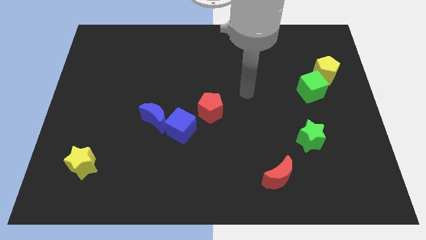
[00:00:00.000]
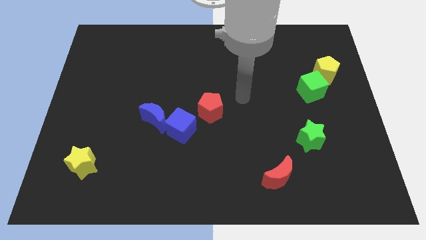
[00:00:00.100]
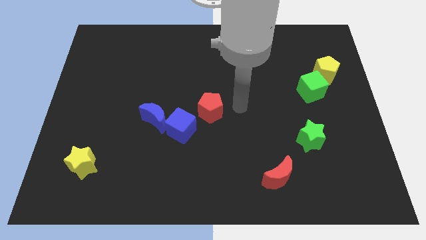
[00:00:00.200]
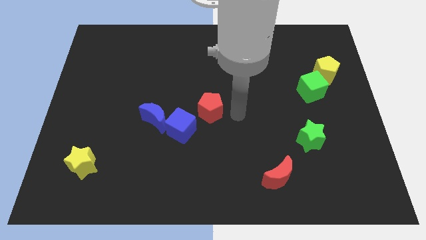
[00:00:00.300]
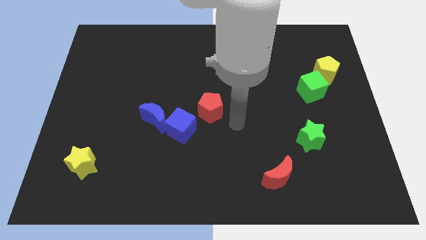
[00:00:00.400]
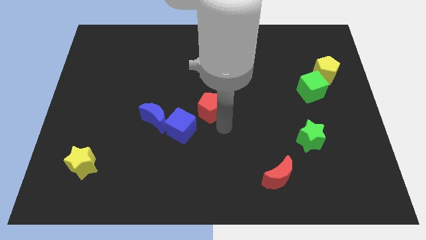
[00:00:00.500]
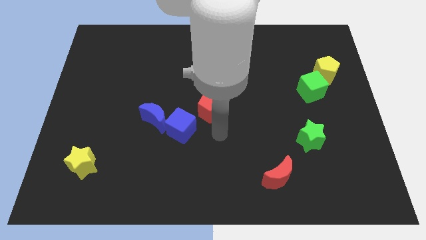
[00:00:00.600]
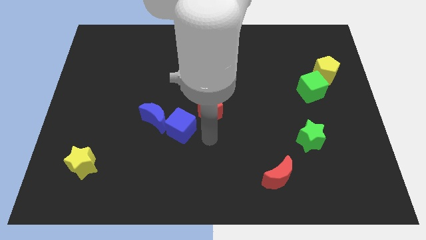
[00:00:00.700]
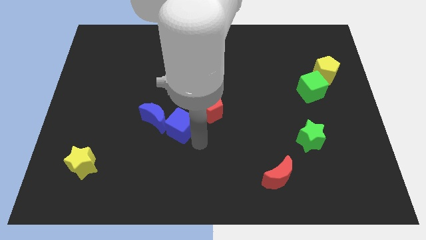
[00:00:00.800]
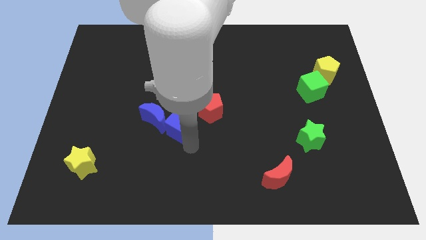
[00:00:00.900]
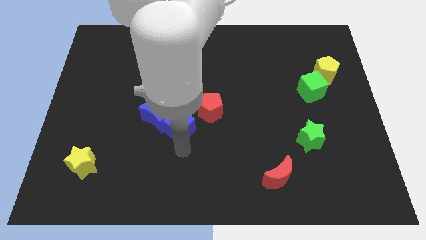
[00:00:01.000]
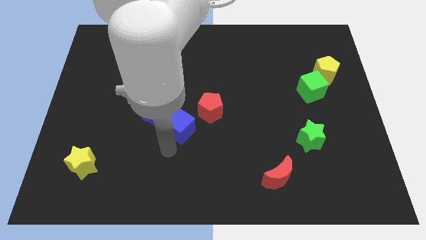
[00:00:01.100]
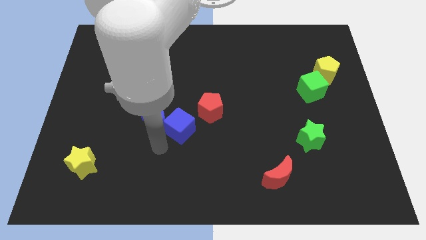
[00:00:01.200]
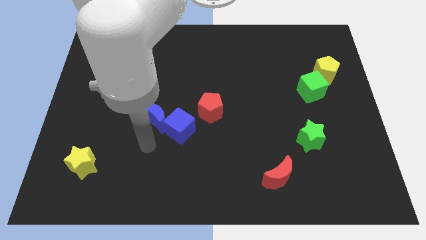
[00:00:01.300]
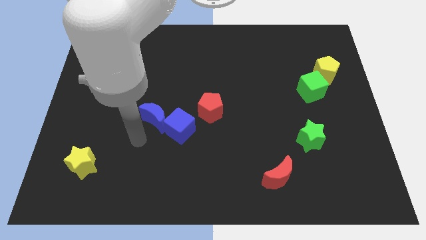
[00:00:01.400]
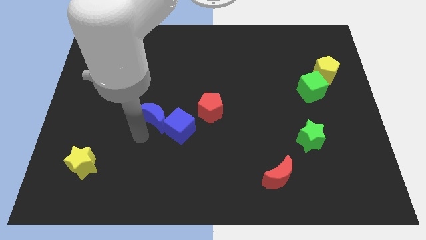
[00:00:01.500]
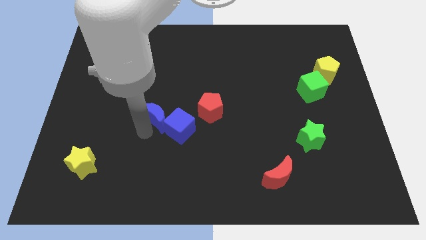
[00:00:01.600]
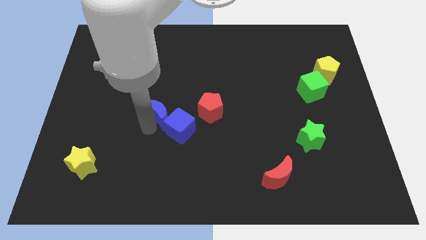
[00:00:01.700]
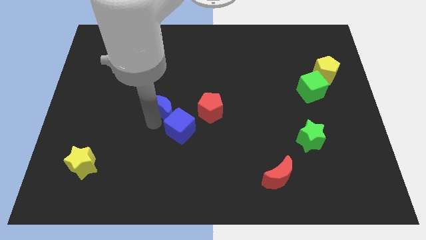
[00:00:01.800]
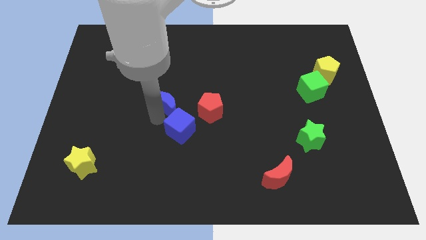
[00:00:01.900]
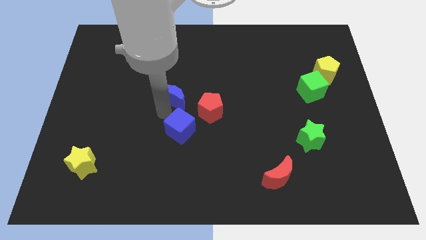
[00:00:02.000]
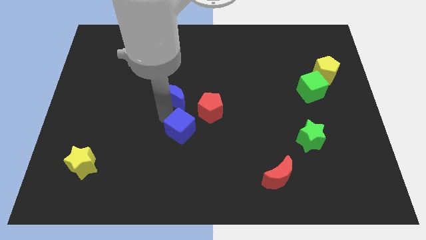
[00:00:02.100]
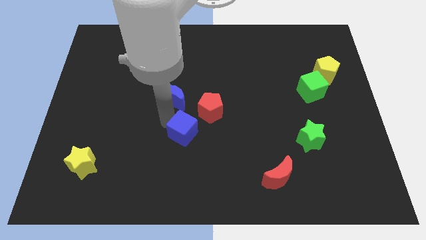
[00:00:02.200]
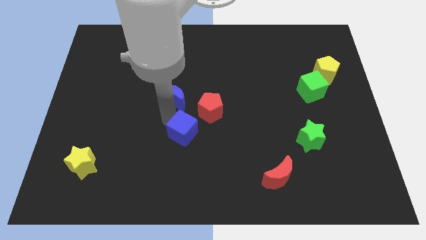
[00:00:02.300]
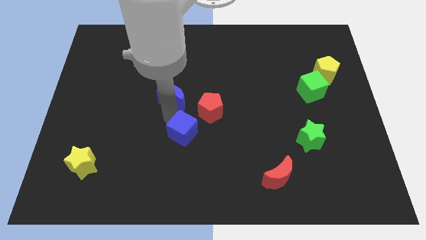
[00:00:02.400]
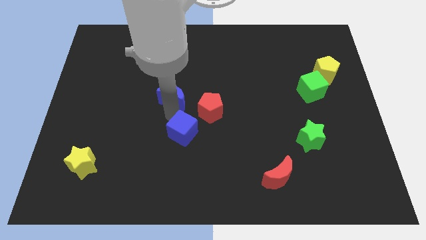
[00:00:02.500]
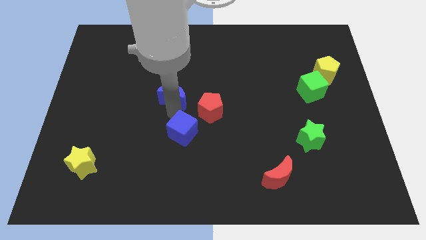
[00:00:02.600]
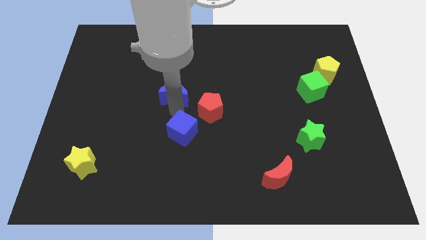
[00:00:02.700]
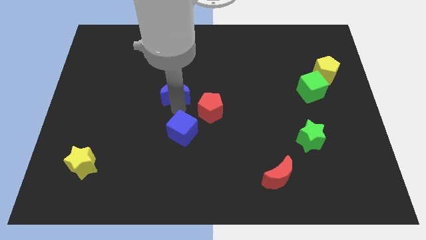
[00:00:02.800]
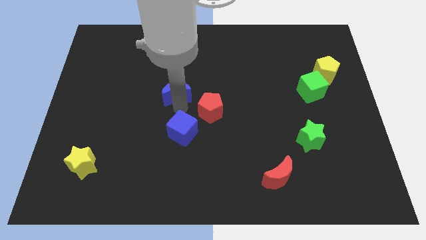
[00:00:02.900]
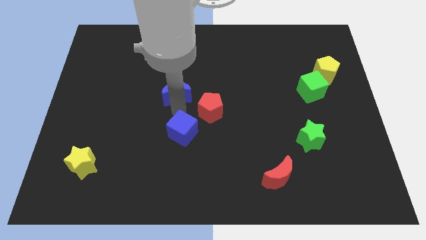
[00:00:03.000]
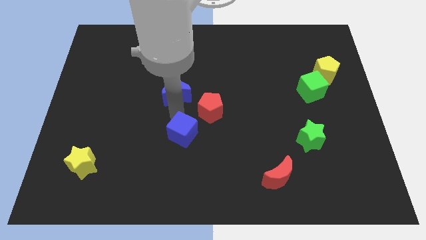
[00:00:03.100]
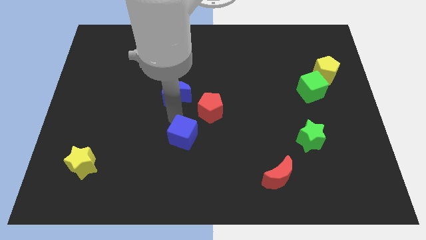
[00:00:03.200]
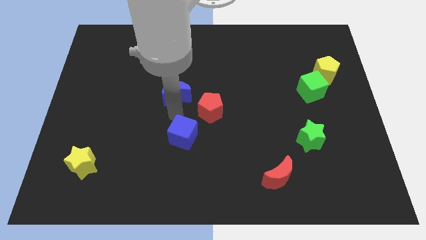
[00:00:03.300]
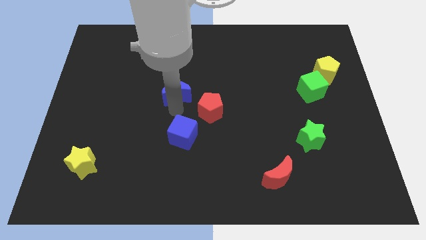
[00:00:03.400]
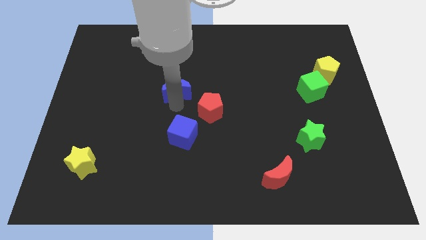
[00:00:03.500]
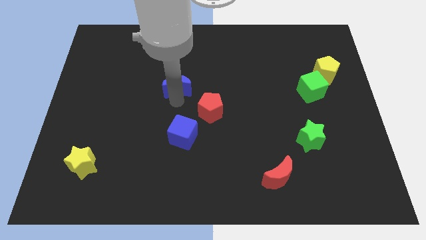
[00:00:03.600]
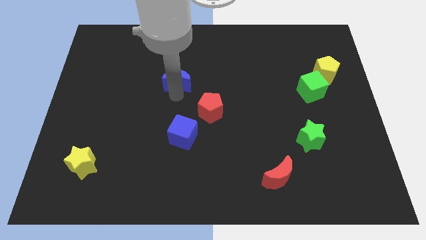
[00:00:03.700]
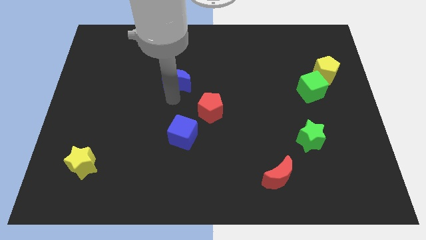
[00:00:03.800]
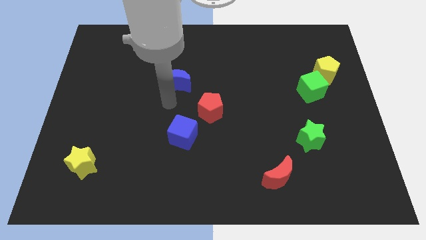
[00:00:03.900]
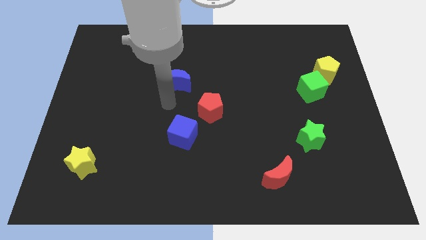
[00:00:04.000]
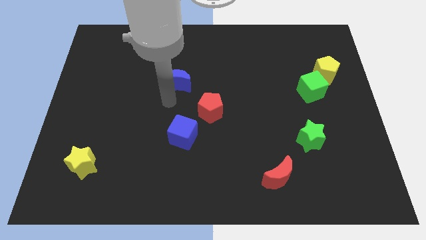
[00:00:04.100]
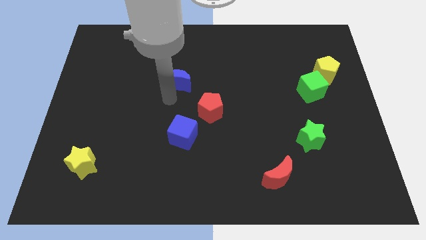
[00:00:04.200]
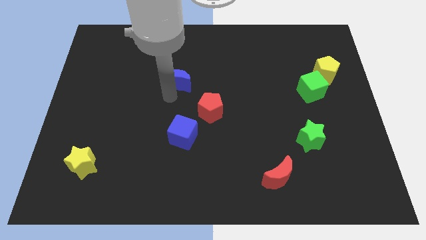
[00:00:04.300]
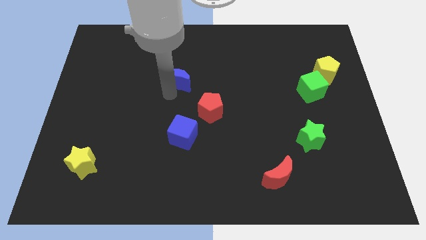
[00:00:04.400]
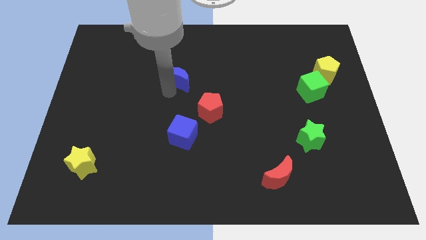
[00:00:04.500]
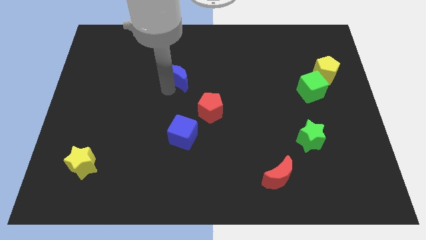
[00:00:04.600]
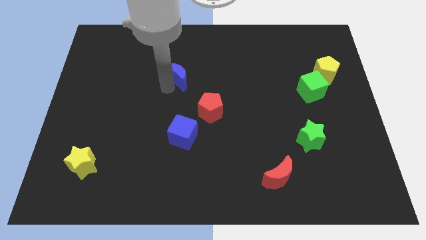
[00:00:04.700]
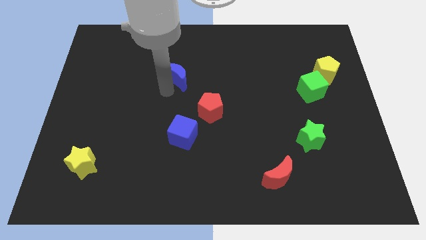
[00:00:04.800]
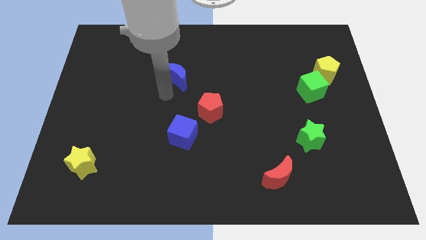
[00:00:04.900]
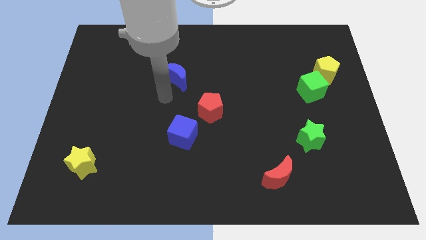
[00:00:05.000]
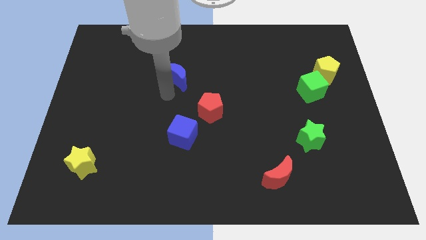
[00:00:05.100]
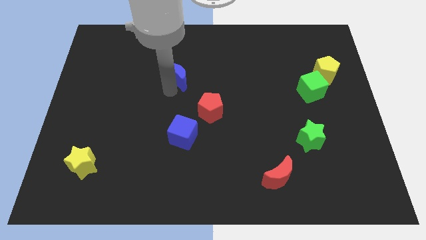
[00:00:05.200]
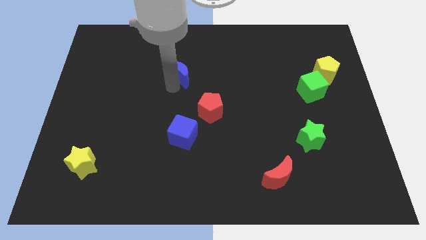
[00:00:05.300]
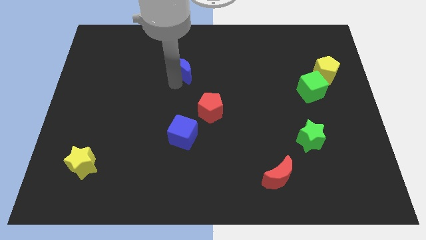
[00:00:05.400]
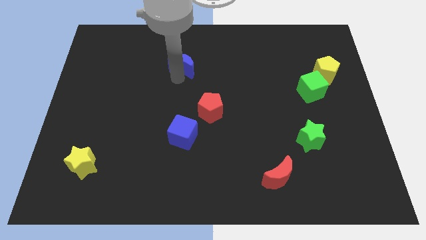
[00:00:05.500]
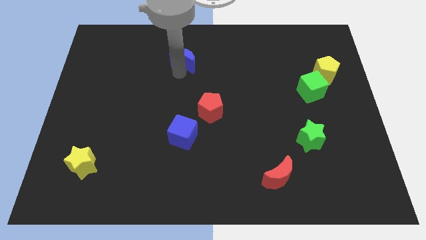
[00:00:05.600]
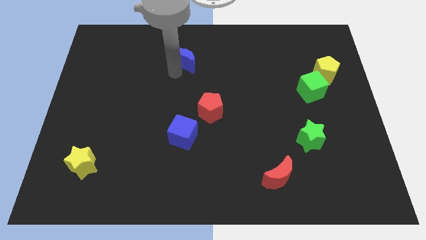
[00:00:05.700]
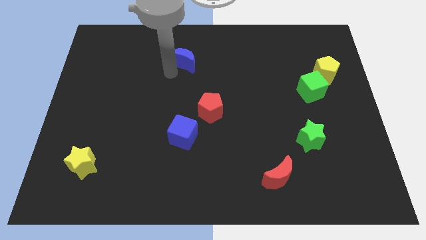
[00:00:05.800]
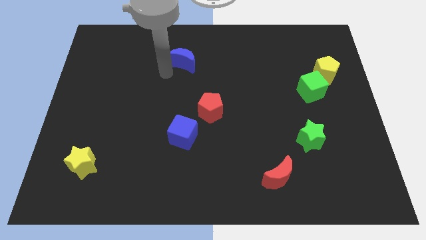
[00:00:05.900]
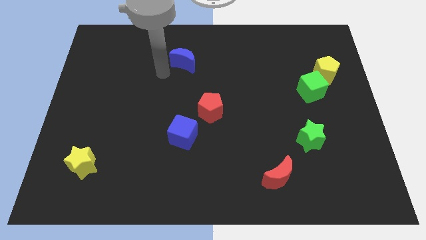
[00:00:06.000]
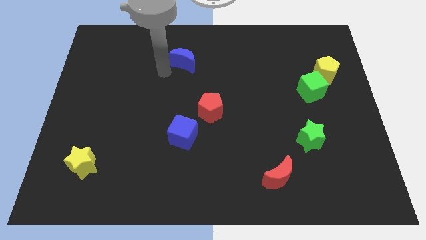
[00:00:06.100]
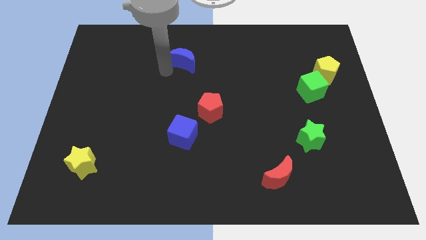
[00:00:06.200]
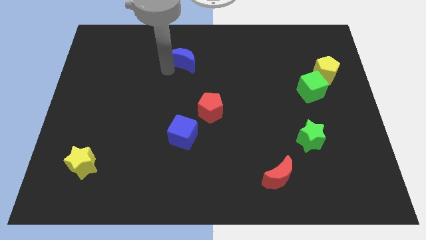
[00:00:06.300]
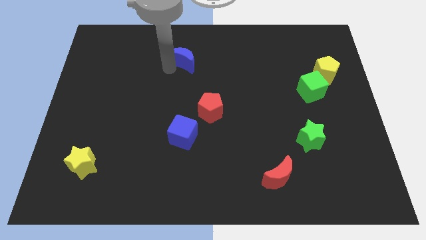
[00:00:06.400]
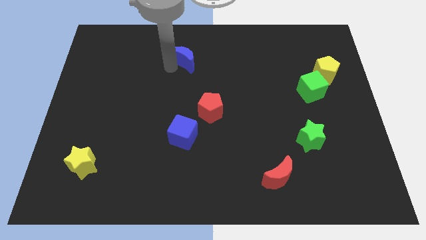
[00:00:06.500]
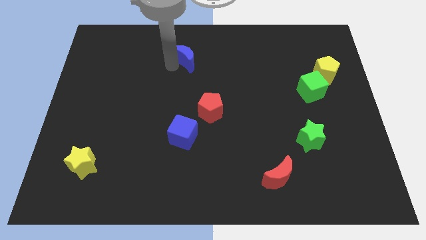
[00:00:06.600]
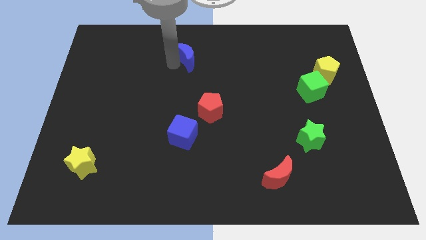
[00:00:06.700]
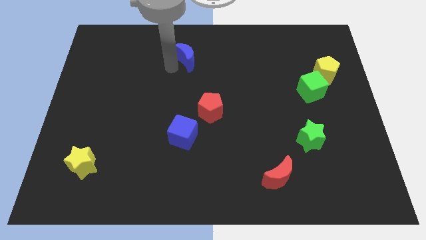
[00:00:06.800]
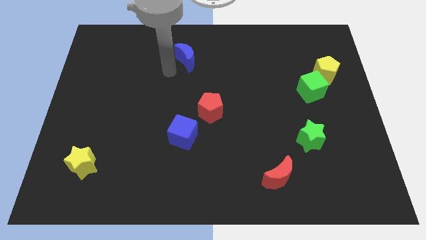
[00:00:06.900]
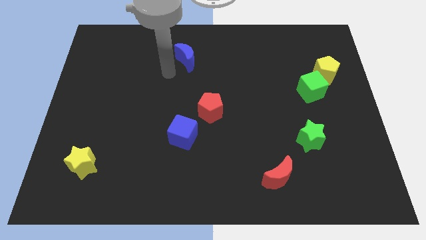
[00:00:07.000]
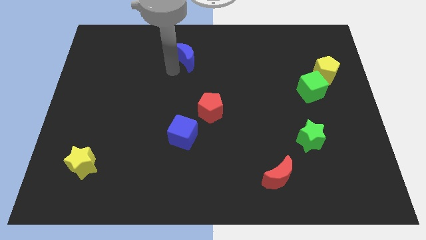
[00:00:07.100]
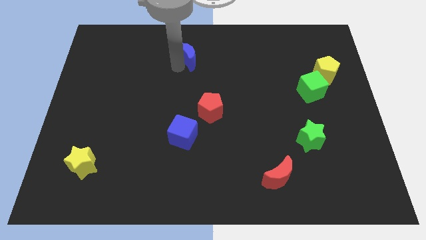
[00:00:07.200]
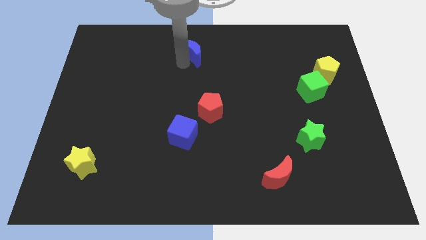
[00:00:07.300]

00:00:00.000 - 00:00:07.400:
put the blue moon to the towards your base
